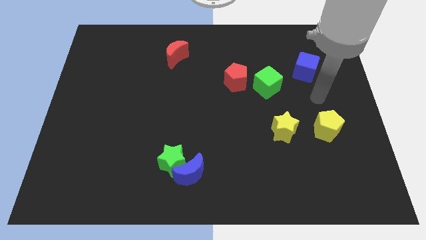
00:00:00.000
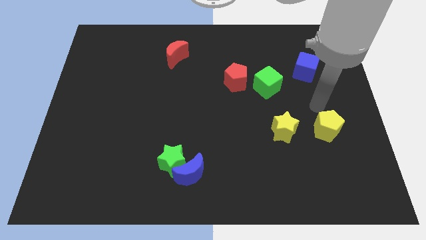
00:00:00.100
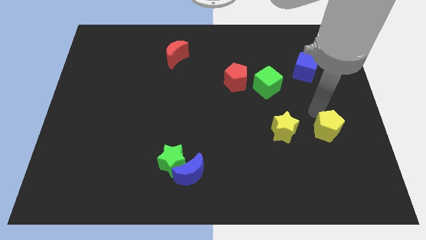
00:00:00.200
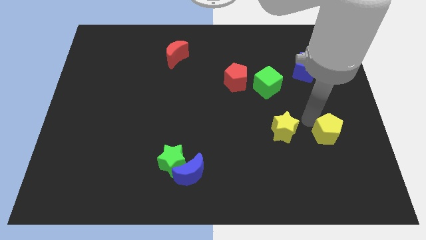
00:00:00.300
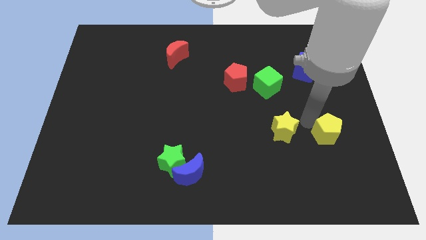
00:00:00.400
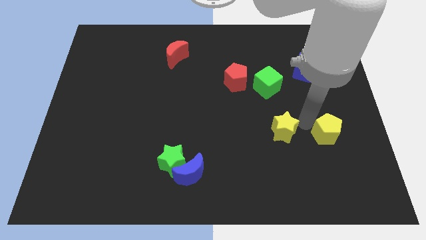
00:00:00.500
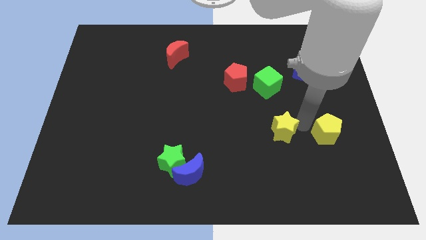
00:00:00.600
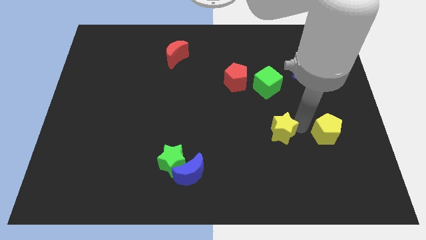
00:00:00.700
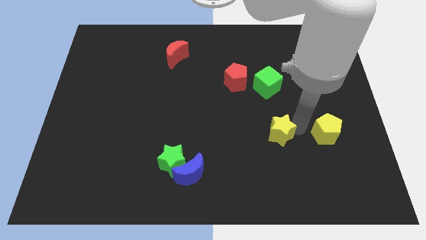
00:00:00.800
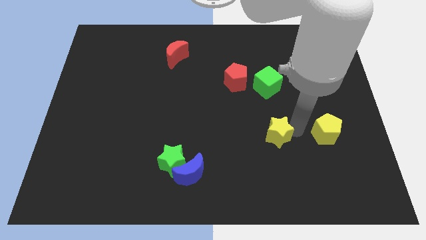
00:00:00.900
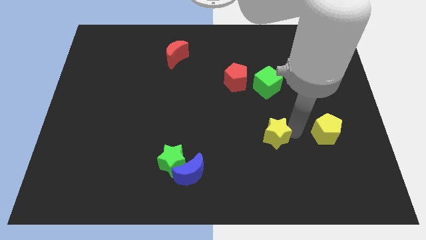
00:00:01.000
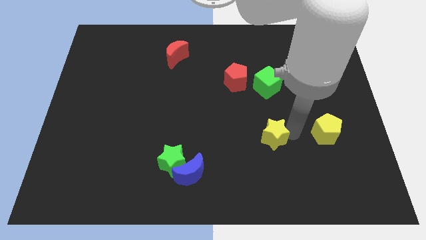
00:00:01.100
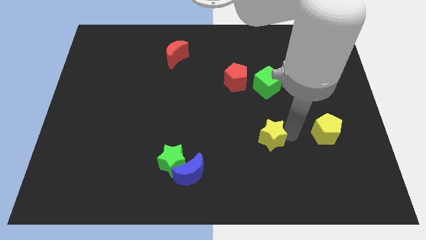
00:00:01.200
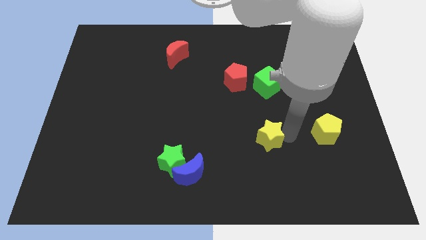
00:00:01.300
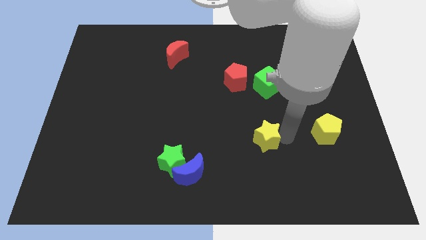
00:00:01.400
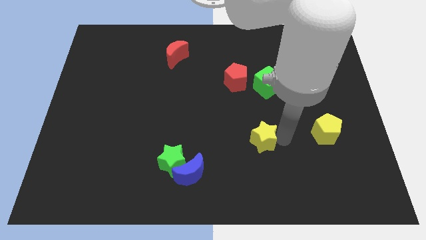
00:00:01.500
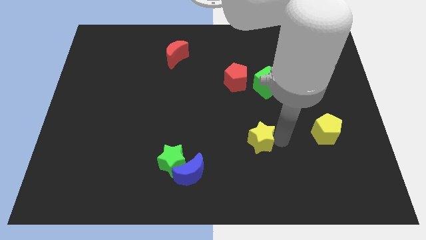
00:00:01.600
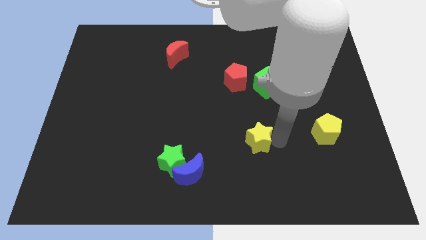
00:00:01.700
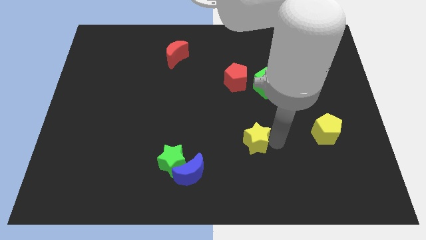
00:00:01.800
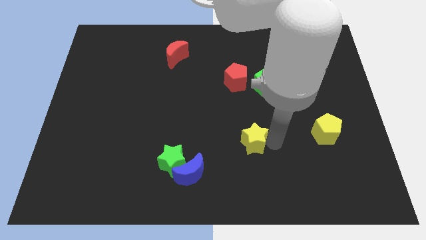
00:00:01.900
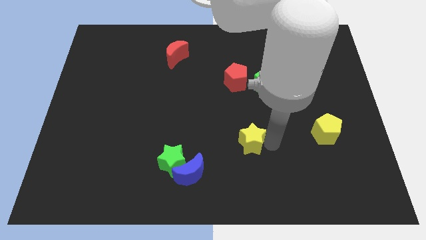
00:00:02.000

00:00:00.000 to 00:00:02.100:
slide the yellow star a little bit left

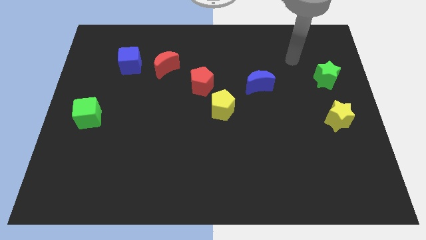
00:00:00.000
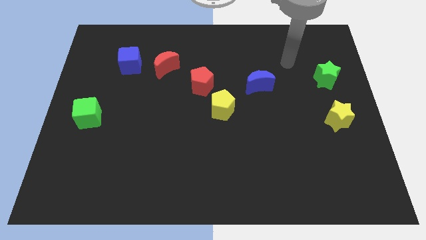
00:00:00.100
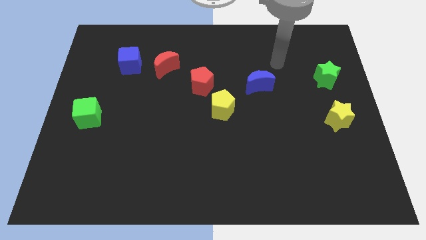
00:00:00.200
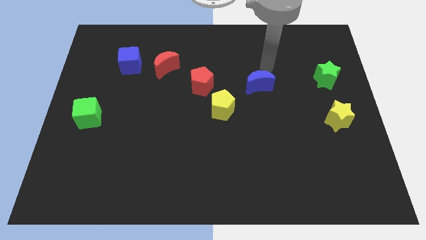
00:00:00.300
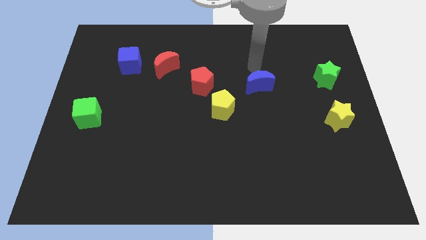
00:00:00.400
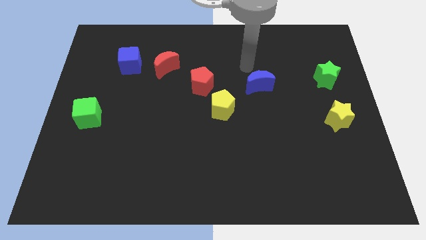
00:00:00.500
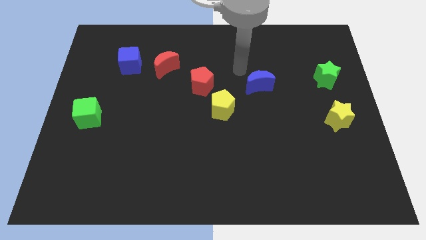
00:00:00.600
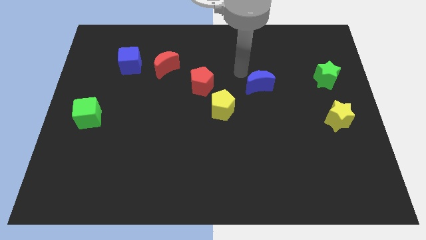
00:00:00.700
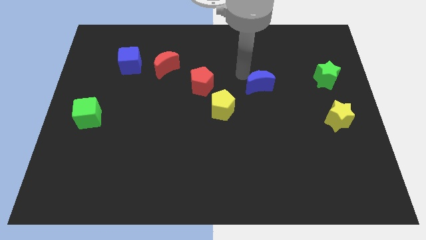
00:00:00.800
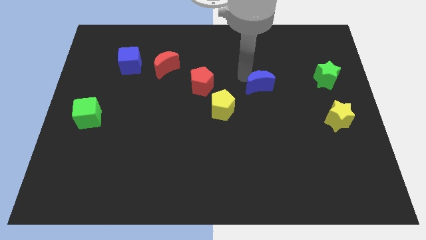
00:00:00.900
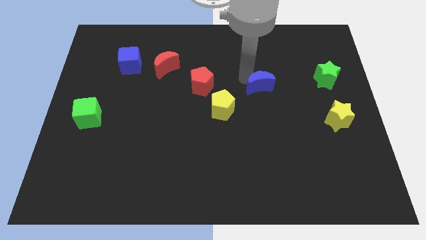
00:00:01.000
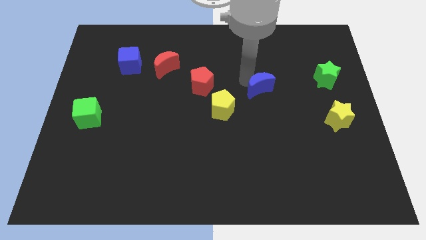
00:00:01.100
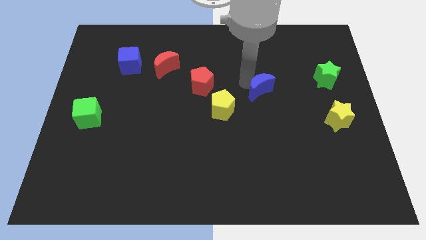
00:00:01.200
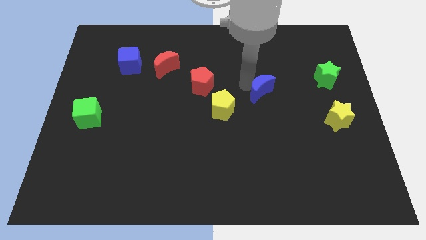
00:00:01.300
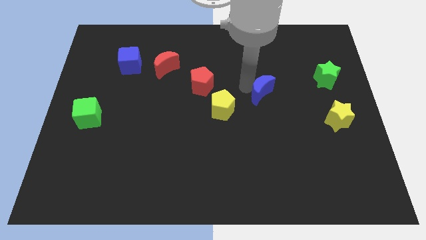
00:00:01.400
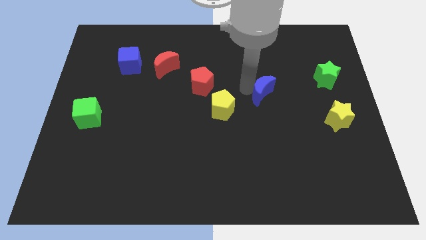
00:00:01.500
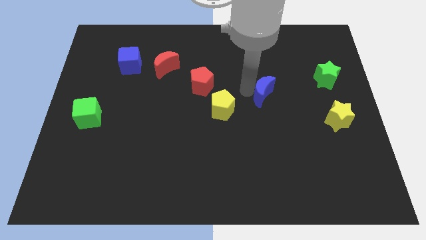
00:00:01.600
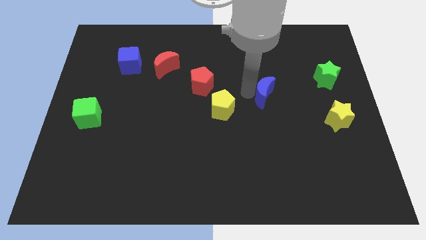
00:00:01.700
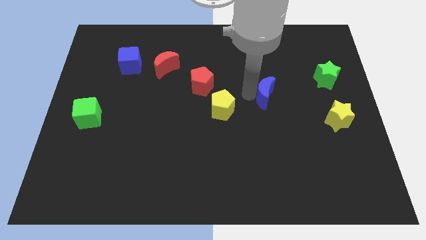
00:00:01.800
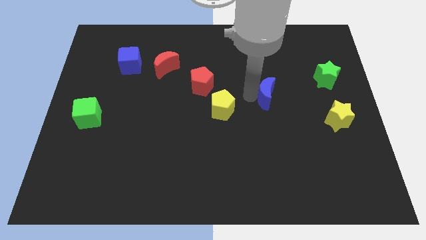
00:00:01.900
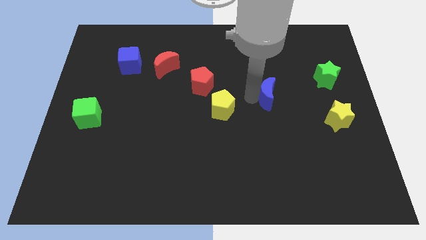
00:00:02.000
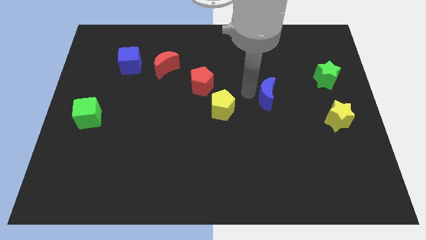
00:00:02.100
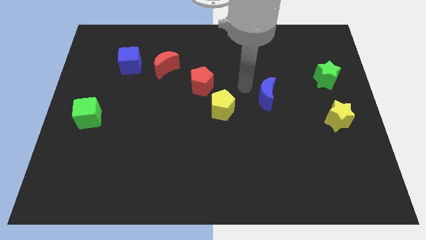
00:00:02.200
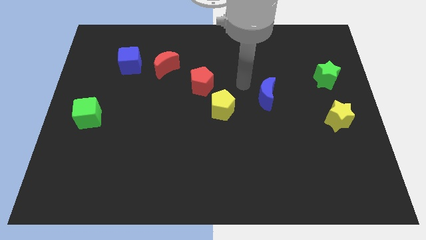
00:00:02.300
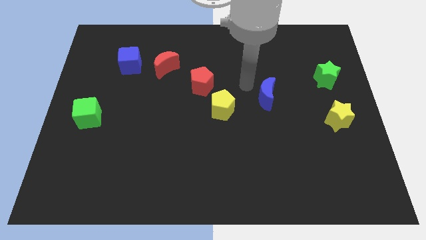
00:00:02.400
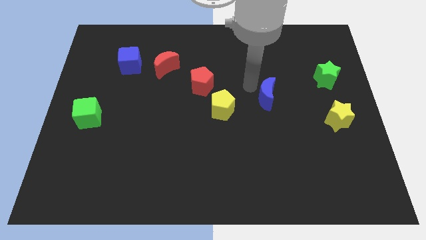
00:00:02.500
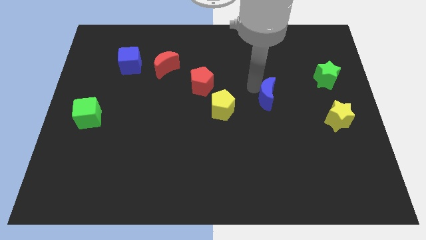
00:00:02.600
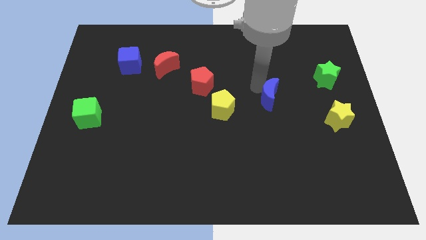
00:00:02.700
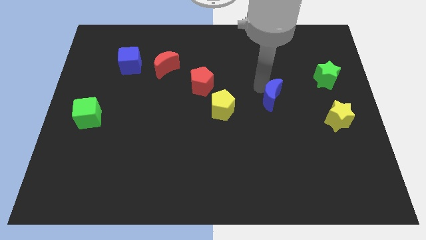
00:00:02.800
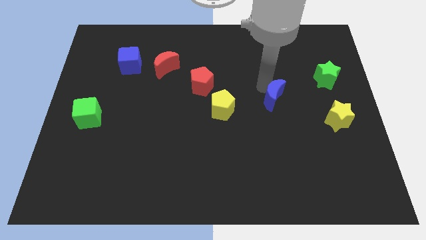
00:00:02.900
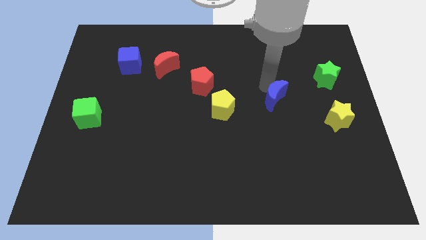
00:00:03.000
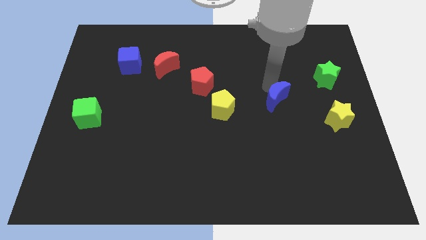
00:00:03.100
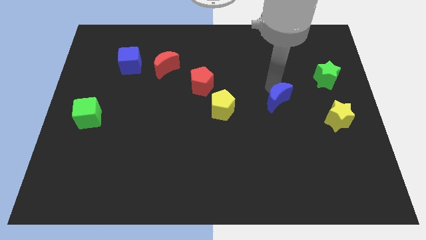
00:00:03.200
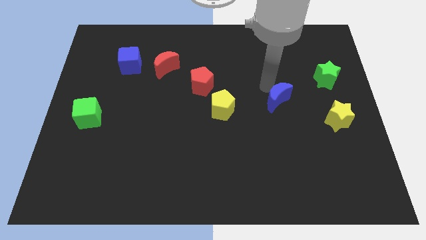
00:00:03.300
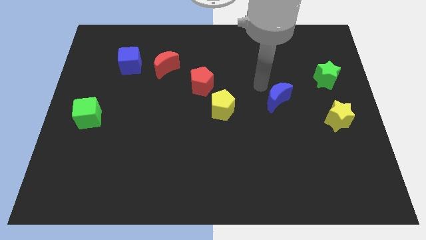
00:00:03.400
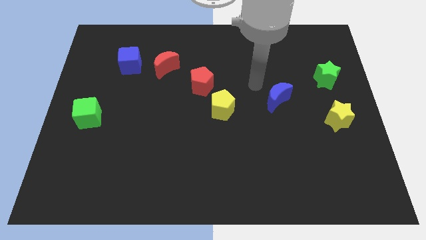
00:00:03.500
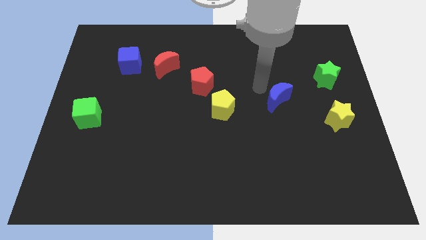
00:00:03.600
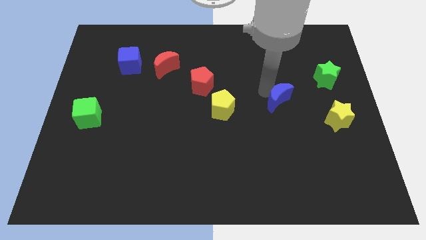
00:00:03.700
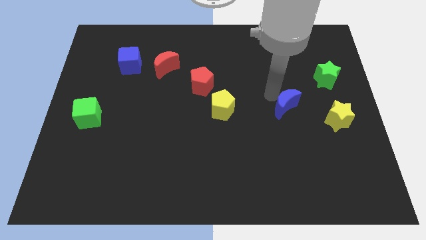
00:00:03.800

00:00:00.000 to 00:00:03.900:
push the blue moon diagonally downwards and to the right a little bit

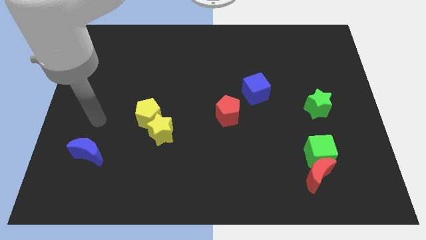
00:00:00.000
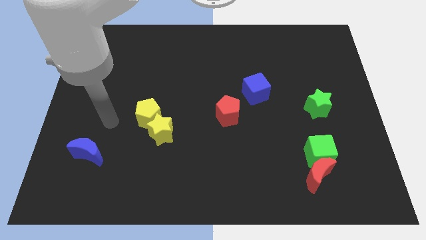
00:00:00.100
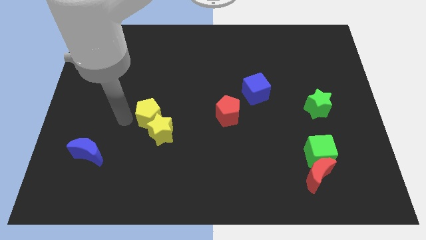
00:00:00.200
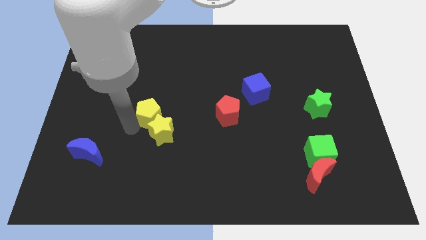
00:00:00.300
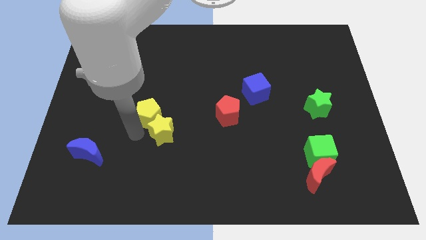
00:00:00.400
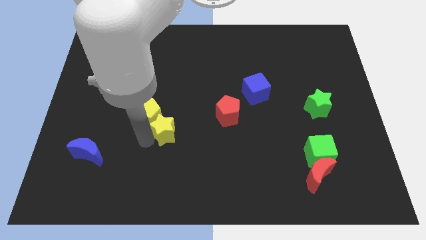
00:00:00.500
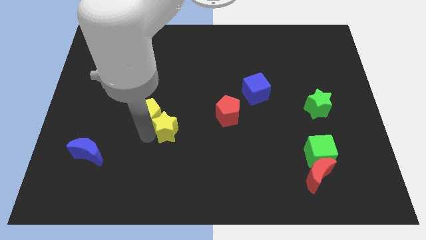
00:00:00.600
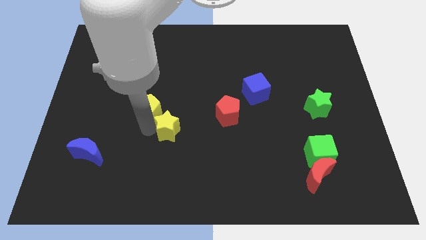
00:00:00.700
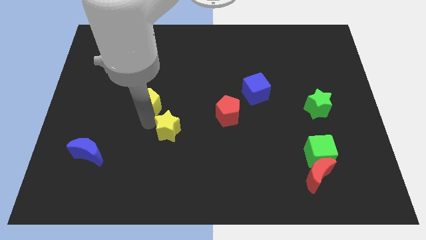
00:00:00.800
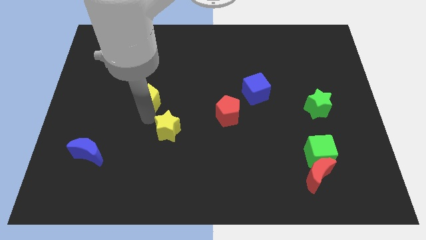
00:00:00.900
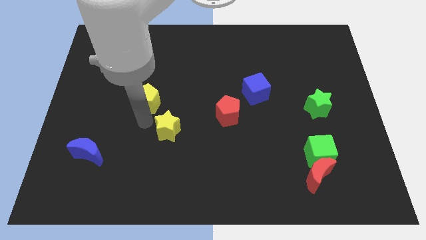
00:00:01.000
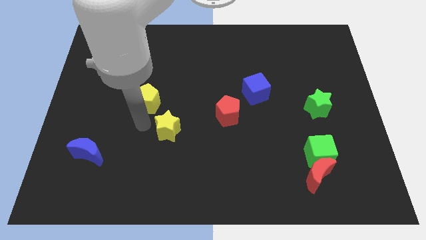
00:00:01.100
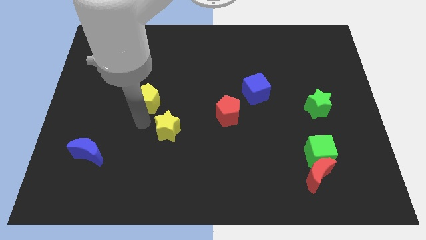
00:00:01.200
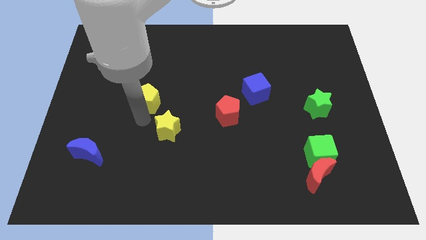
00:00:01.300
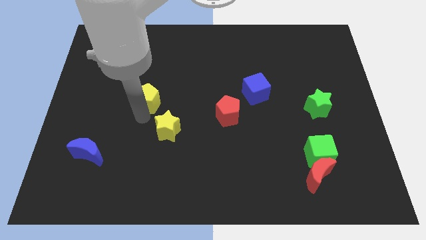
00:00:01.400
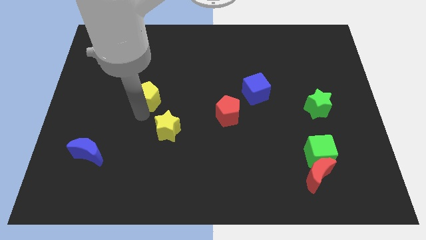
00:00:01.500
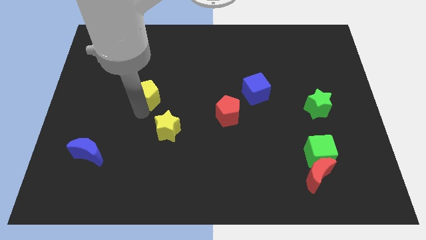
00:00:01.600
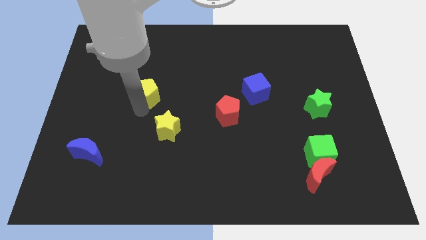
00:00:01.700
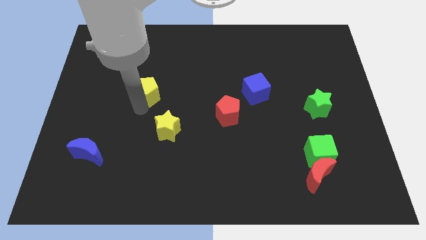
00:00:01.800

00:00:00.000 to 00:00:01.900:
move the yellow pentagon slightly upwards

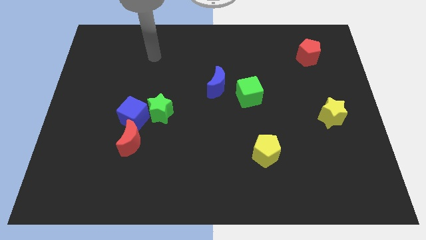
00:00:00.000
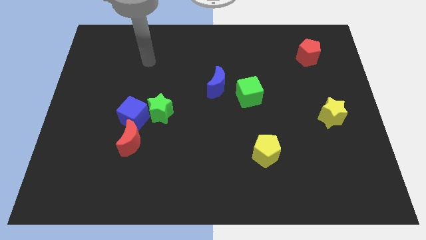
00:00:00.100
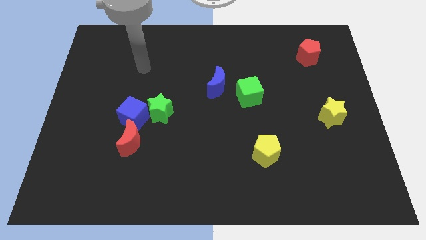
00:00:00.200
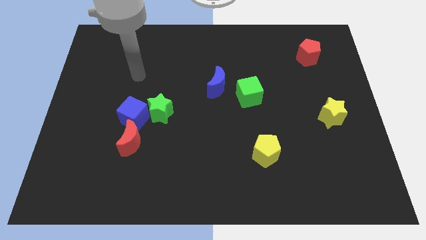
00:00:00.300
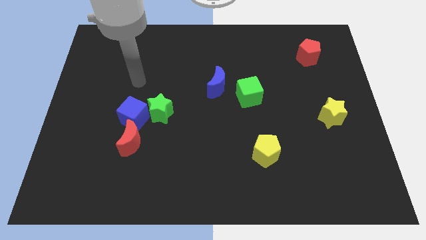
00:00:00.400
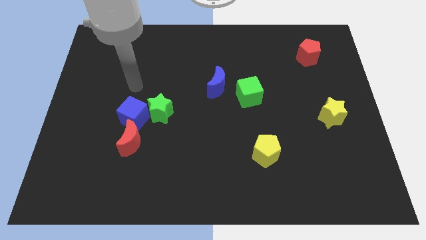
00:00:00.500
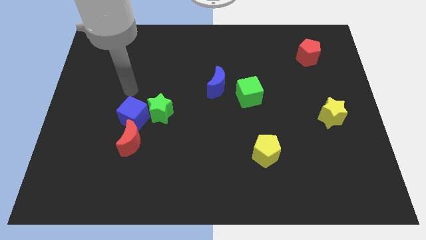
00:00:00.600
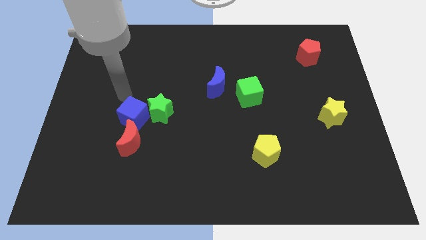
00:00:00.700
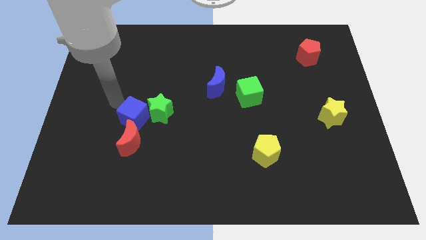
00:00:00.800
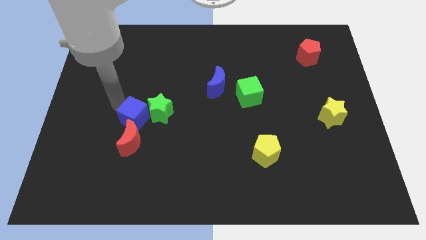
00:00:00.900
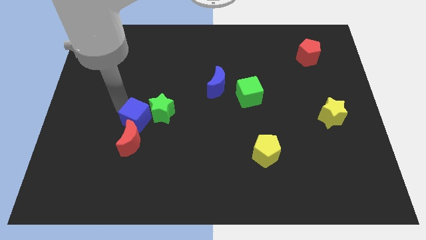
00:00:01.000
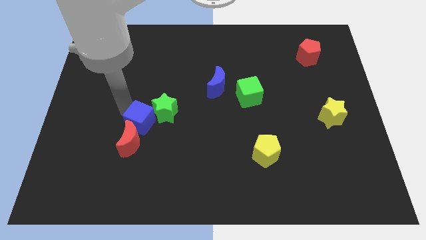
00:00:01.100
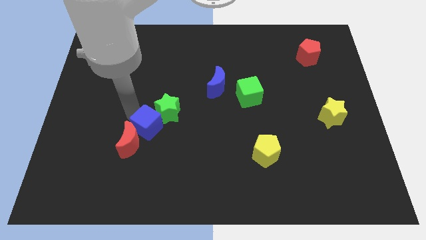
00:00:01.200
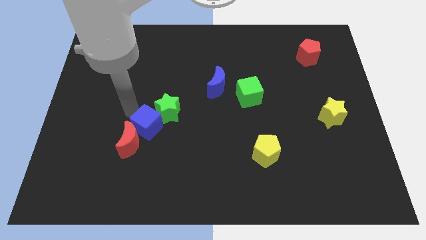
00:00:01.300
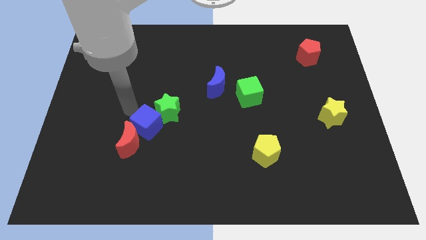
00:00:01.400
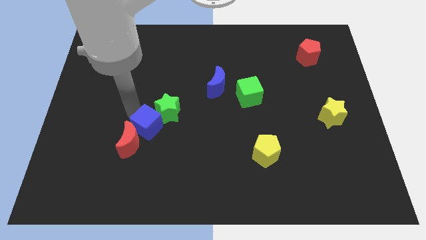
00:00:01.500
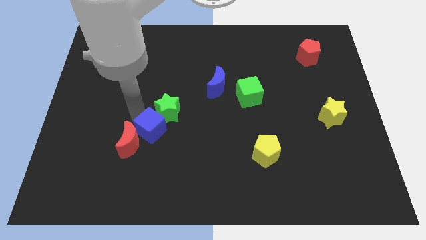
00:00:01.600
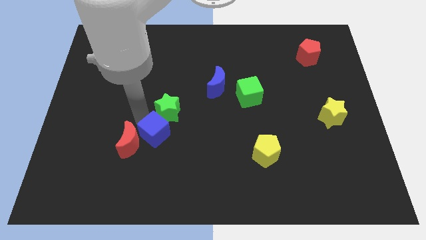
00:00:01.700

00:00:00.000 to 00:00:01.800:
slightly move the blue cube downwards and right
